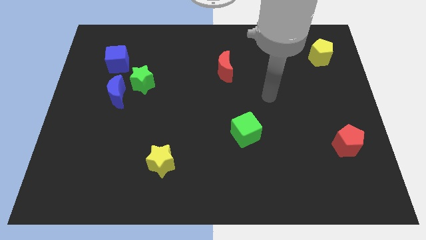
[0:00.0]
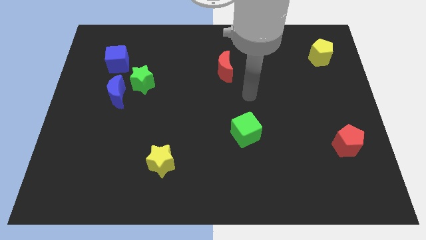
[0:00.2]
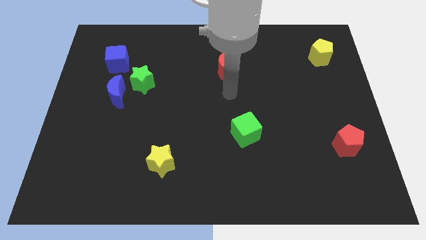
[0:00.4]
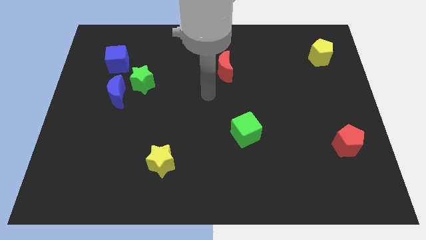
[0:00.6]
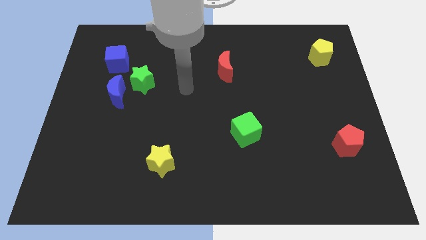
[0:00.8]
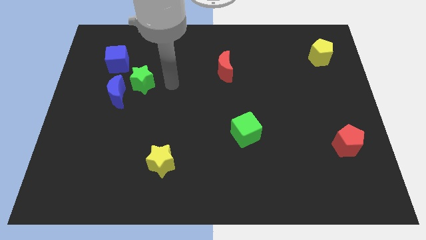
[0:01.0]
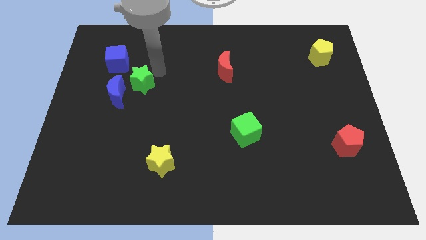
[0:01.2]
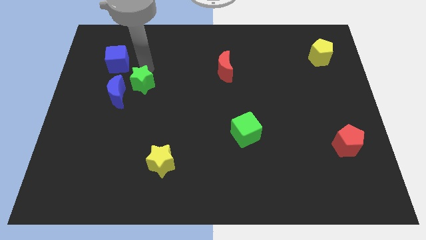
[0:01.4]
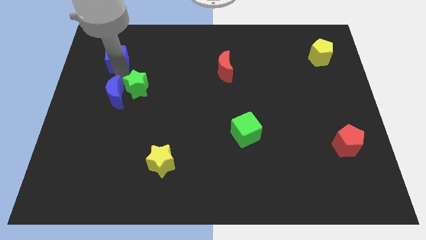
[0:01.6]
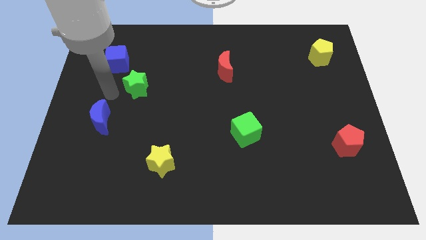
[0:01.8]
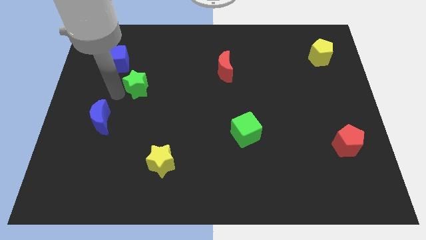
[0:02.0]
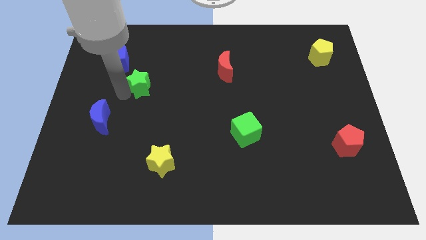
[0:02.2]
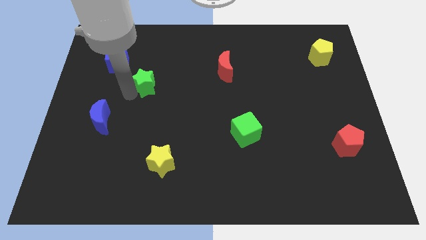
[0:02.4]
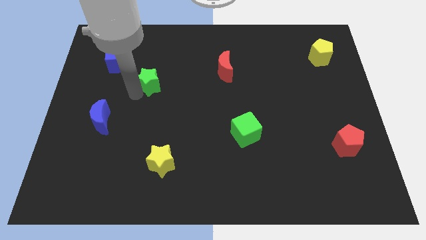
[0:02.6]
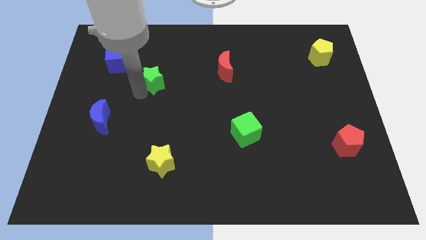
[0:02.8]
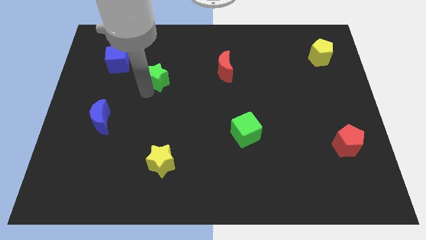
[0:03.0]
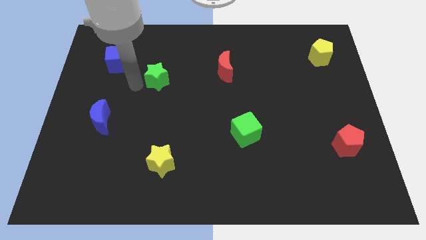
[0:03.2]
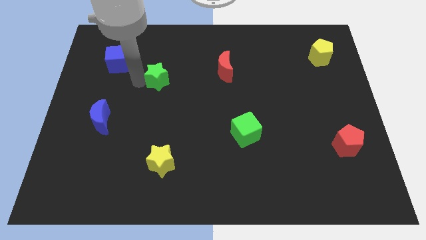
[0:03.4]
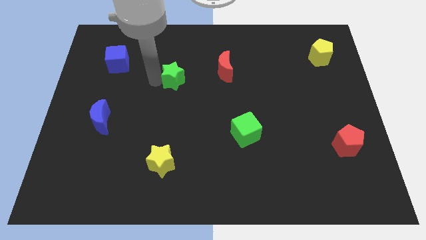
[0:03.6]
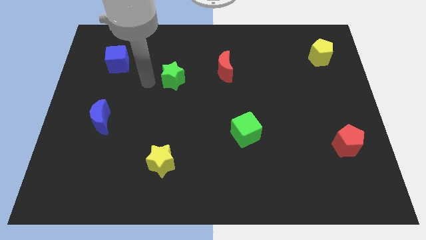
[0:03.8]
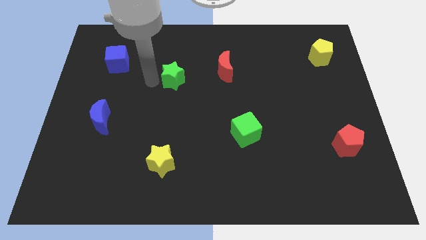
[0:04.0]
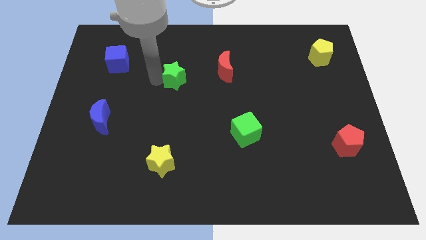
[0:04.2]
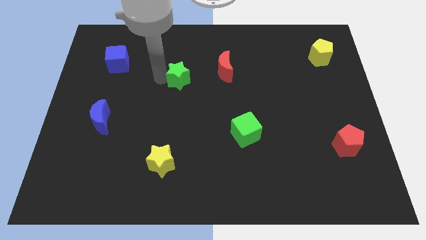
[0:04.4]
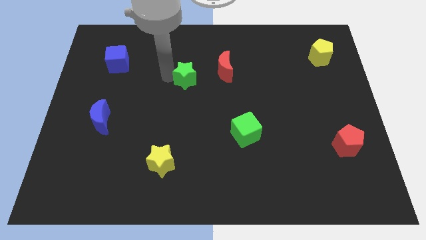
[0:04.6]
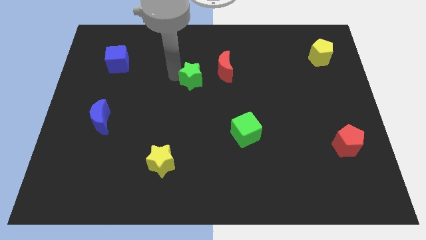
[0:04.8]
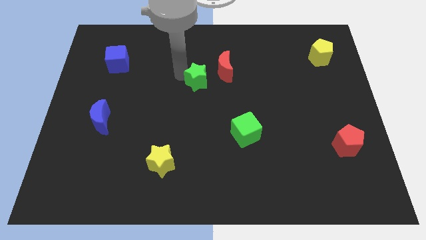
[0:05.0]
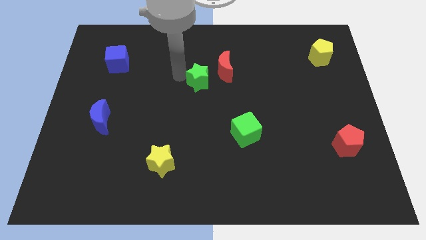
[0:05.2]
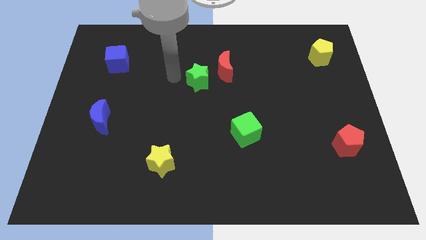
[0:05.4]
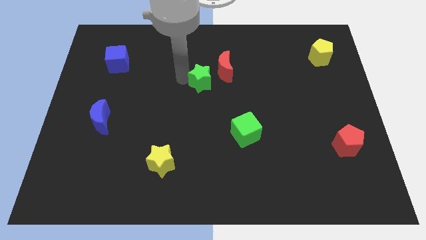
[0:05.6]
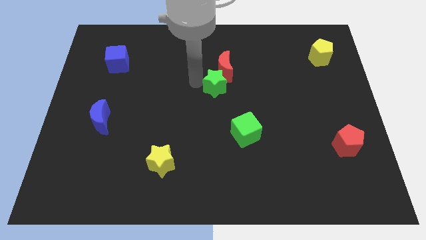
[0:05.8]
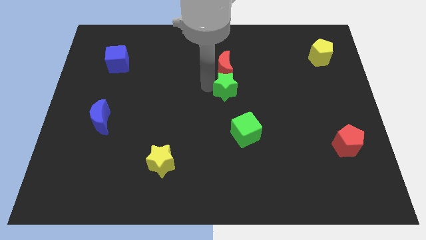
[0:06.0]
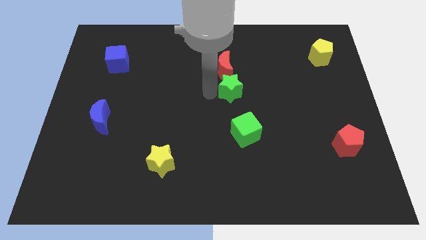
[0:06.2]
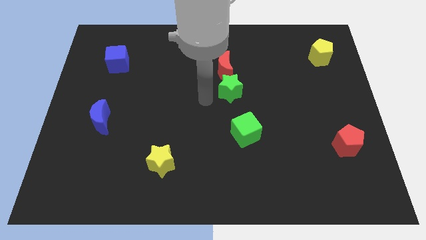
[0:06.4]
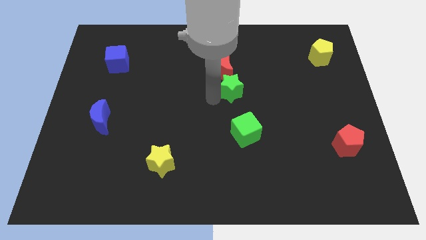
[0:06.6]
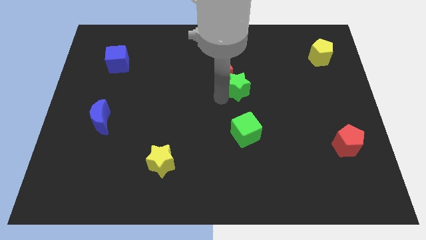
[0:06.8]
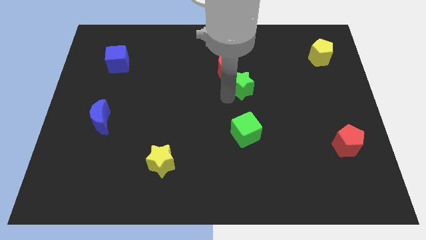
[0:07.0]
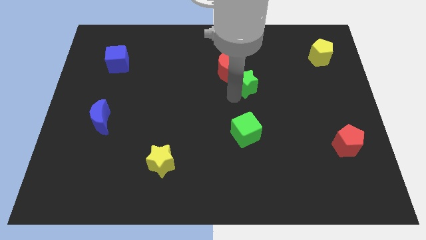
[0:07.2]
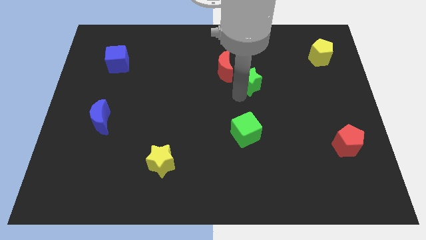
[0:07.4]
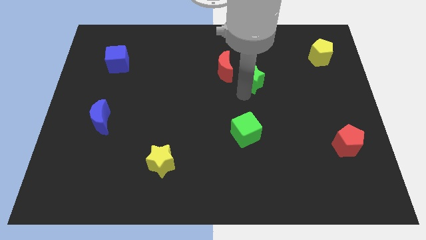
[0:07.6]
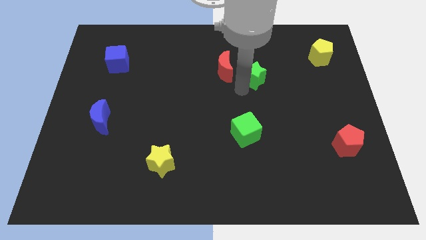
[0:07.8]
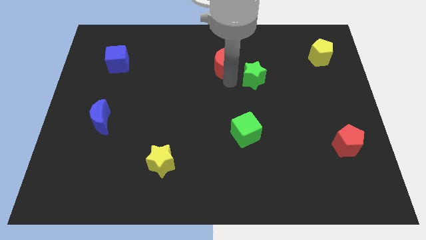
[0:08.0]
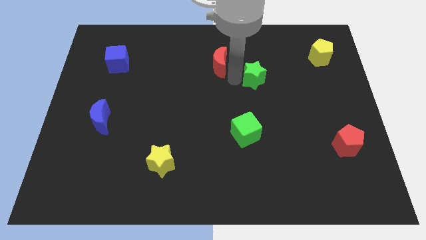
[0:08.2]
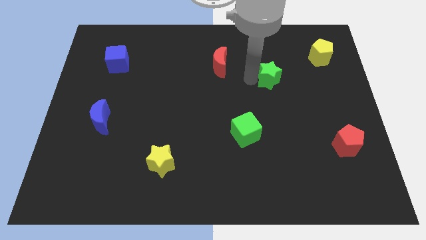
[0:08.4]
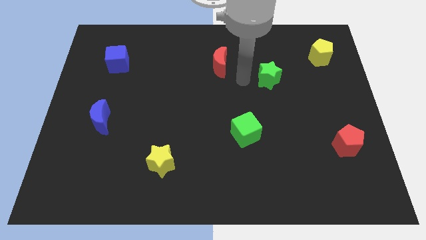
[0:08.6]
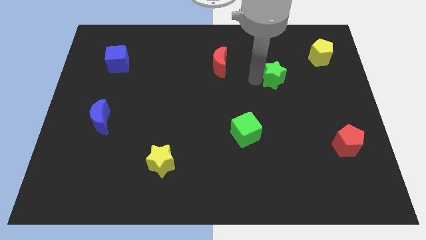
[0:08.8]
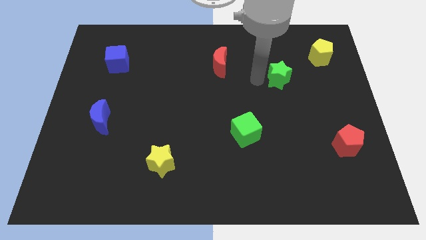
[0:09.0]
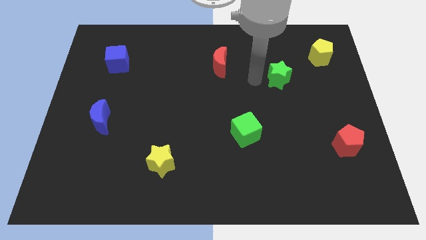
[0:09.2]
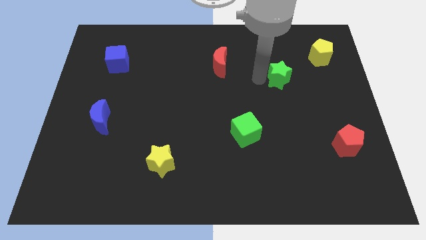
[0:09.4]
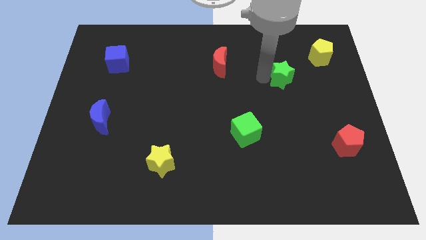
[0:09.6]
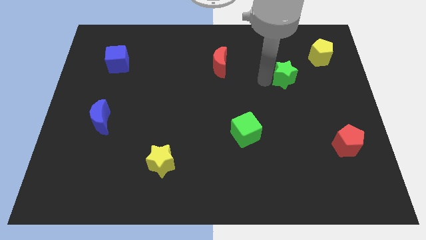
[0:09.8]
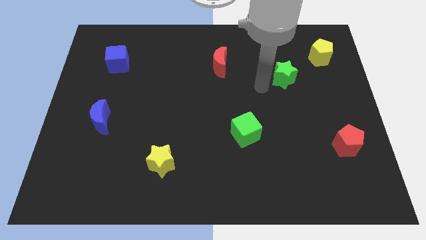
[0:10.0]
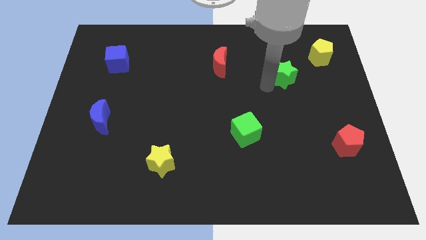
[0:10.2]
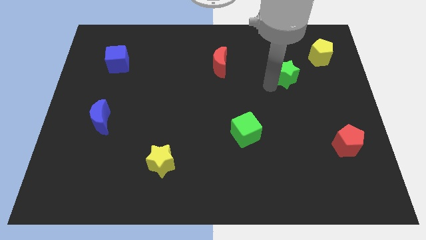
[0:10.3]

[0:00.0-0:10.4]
slide the green star to the bottom left side of the yellow pentagon

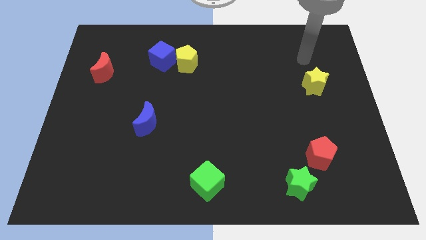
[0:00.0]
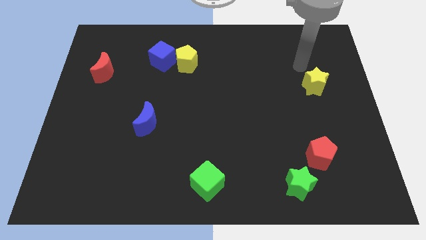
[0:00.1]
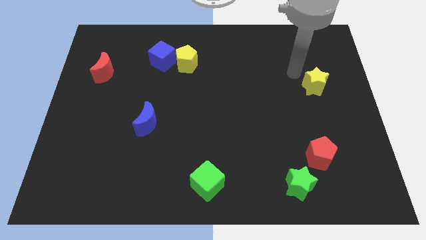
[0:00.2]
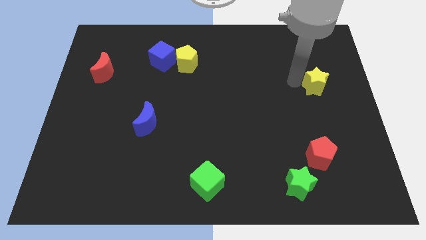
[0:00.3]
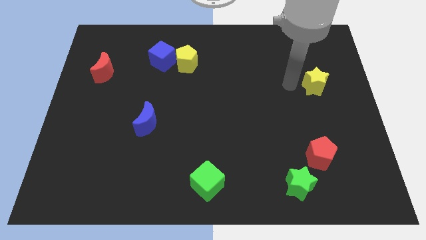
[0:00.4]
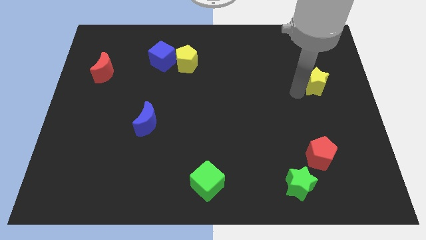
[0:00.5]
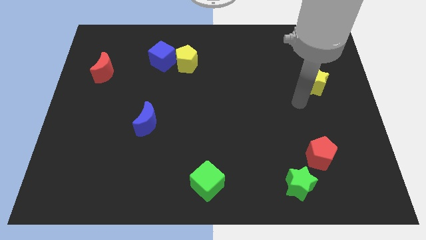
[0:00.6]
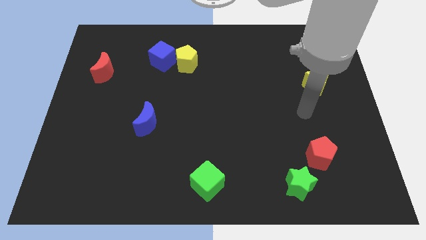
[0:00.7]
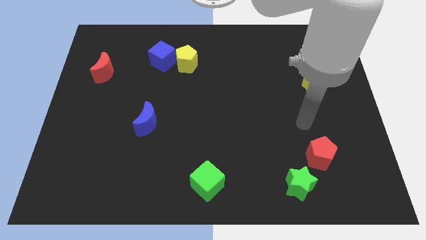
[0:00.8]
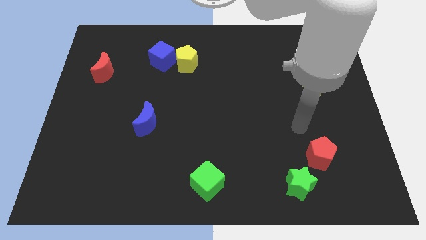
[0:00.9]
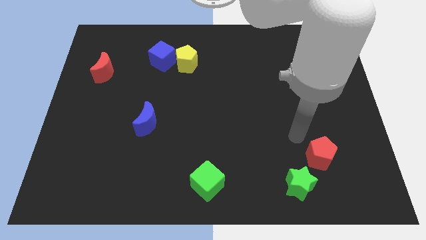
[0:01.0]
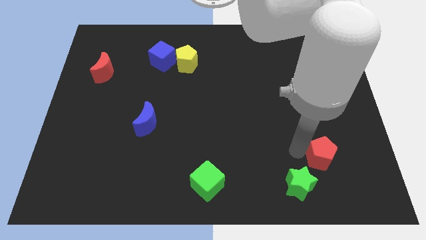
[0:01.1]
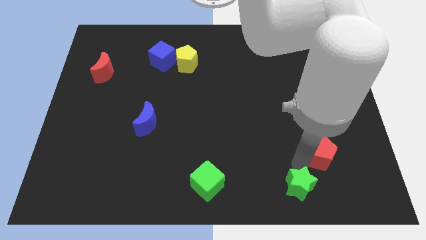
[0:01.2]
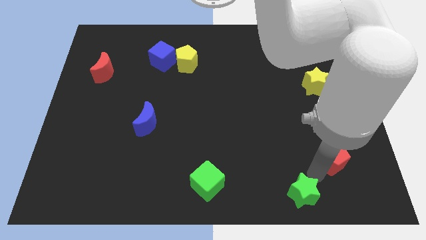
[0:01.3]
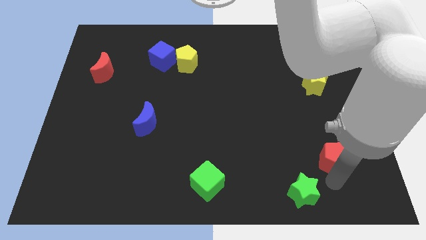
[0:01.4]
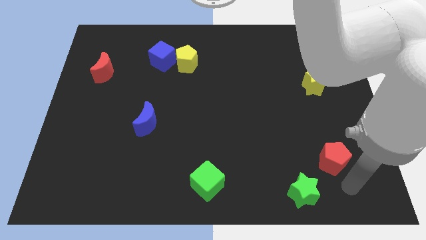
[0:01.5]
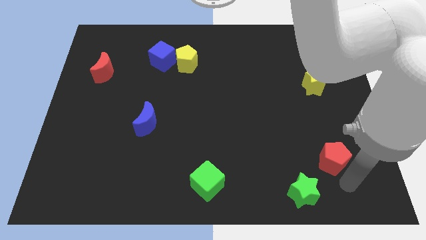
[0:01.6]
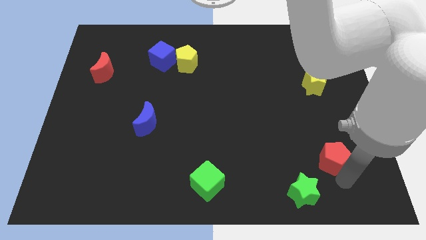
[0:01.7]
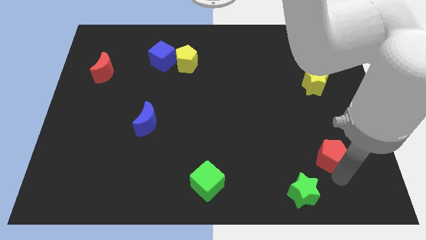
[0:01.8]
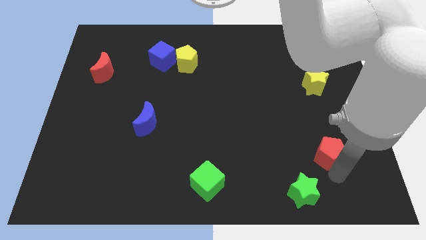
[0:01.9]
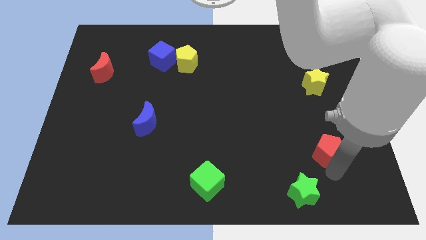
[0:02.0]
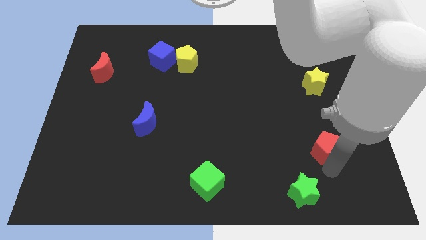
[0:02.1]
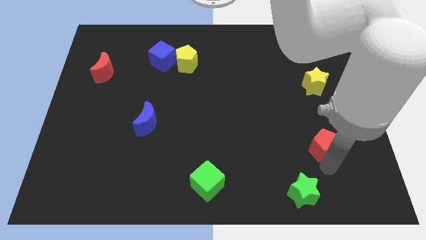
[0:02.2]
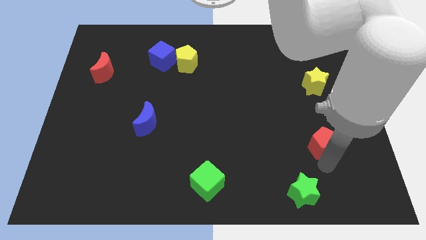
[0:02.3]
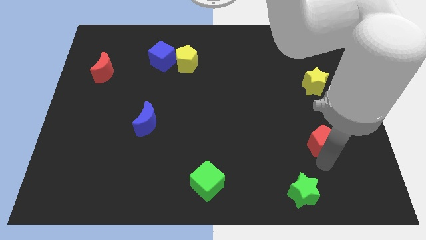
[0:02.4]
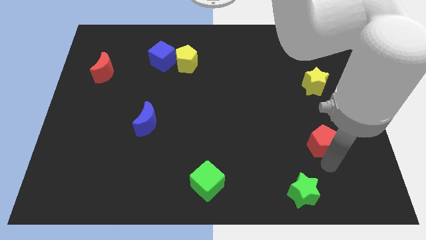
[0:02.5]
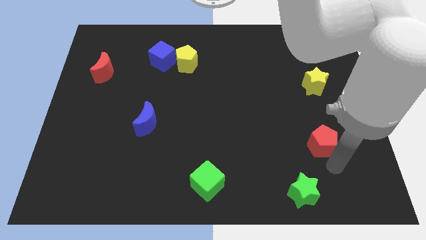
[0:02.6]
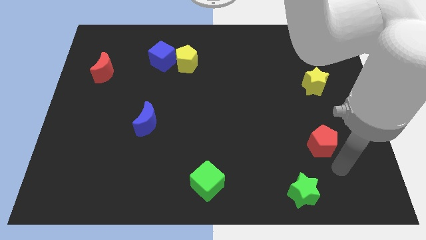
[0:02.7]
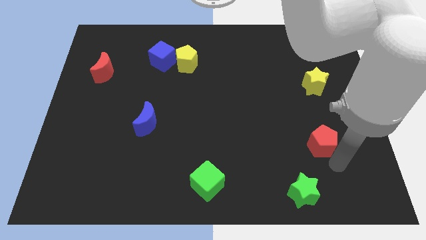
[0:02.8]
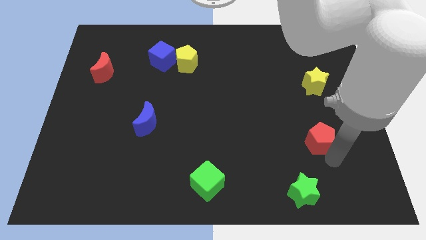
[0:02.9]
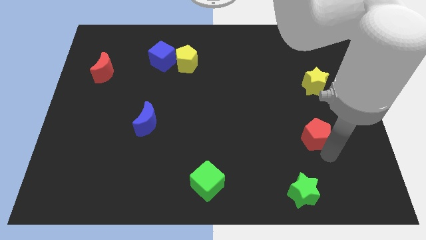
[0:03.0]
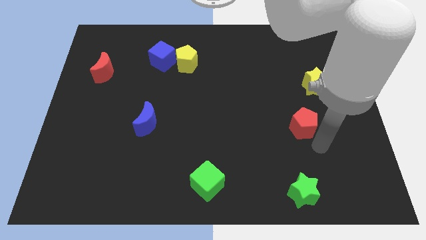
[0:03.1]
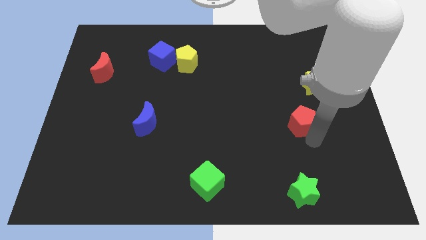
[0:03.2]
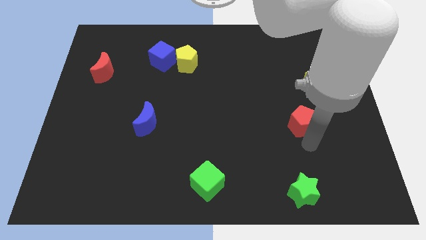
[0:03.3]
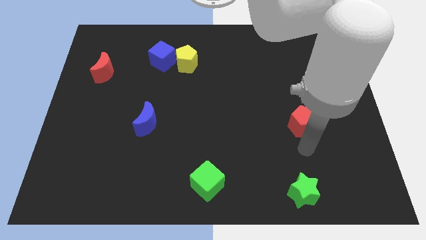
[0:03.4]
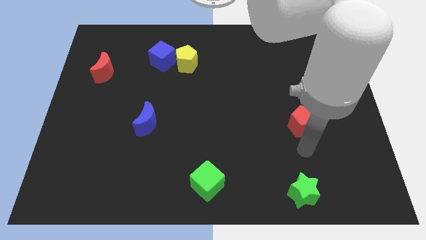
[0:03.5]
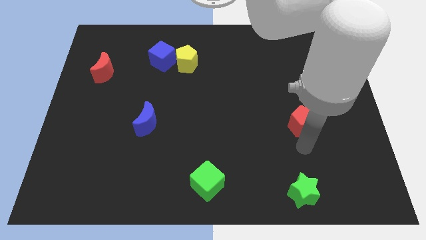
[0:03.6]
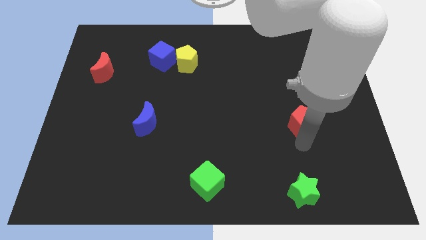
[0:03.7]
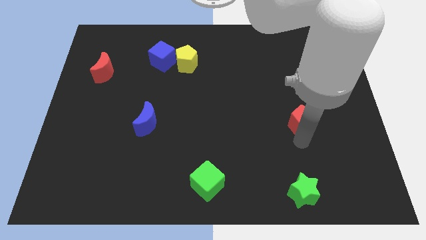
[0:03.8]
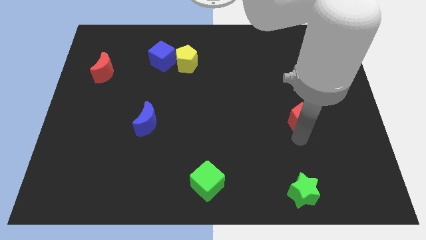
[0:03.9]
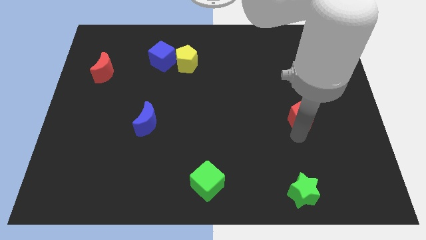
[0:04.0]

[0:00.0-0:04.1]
slide the red pentagon to the bottom left side of the yellow star
